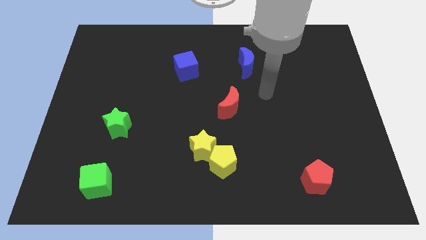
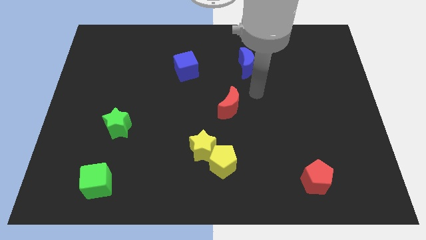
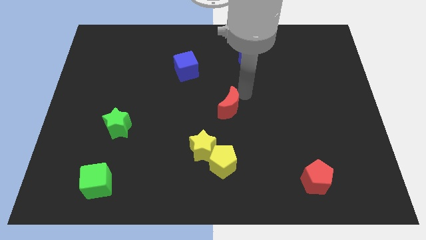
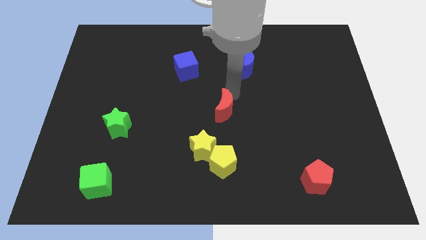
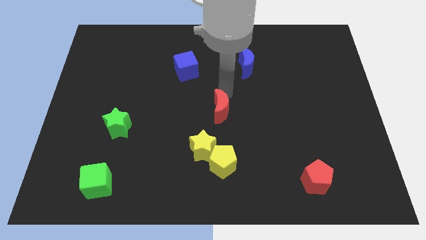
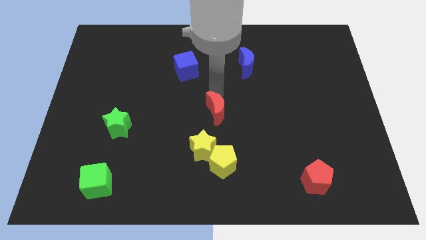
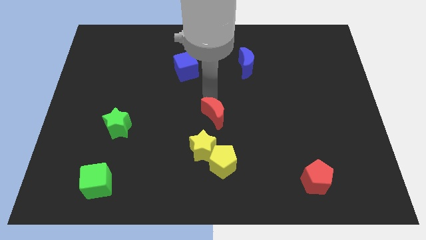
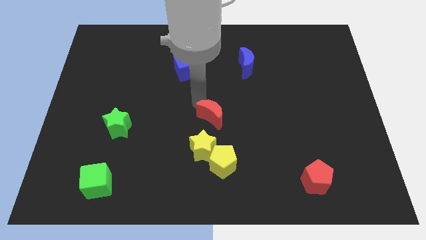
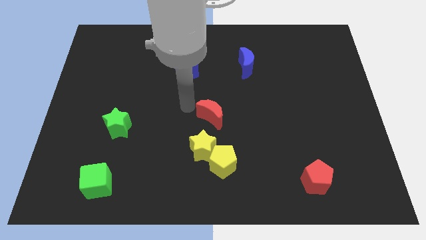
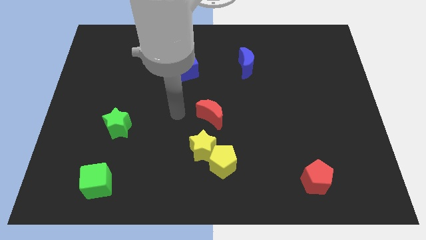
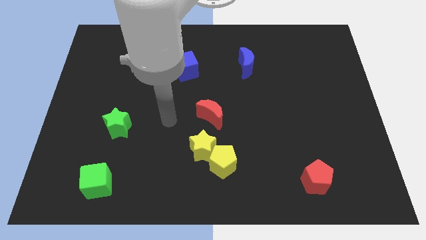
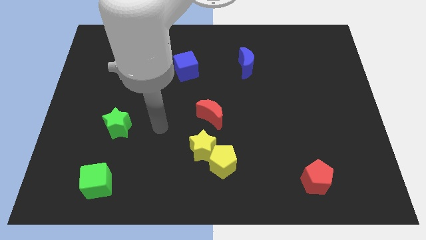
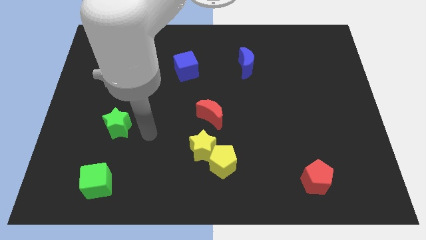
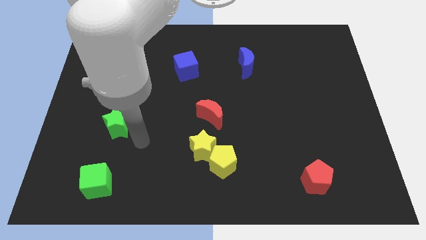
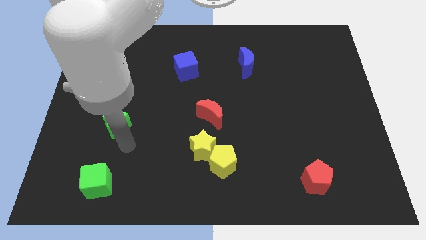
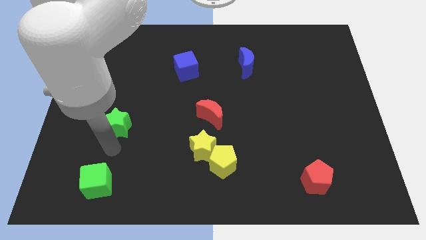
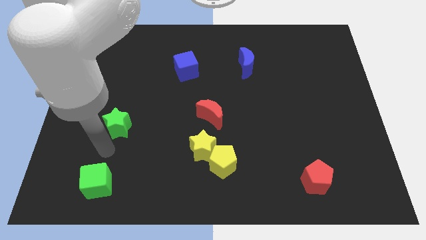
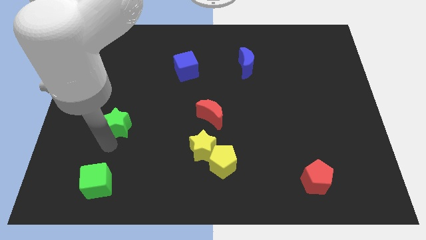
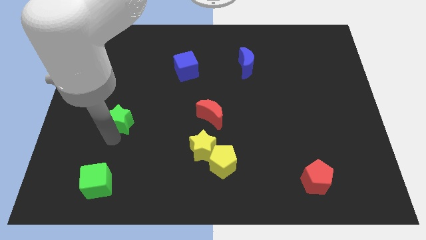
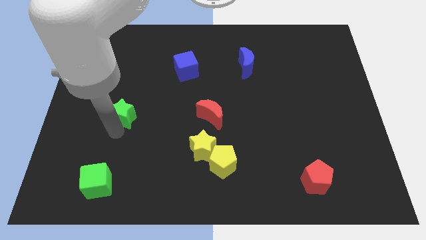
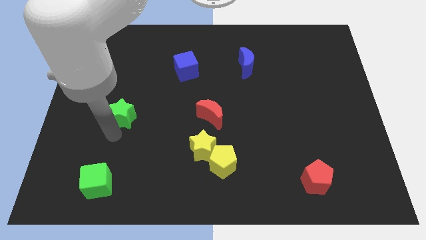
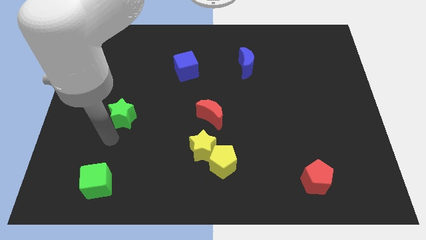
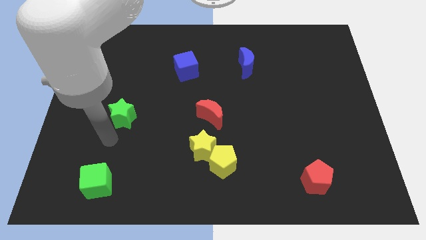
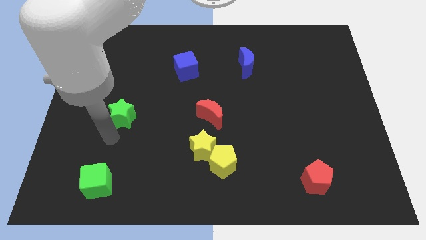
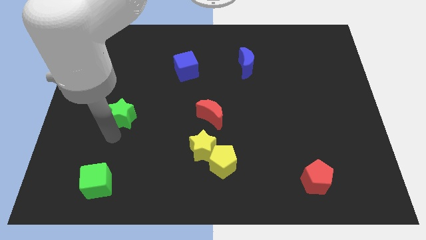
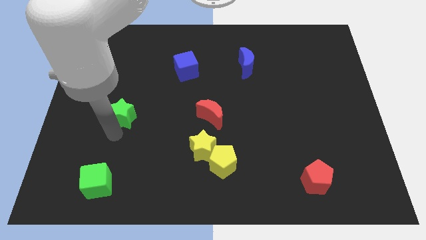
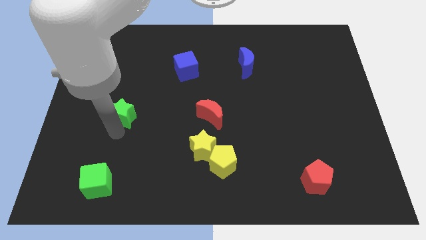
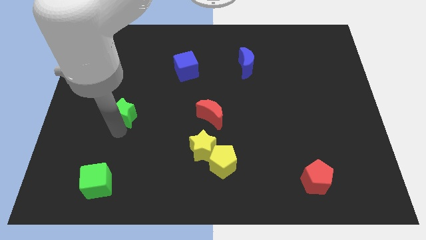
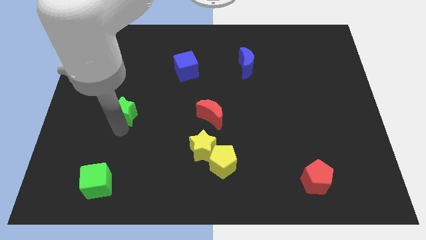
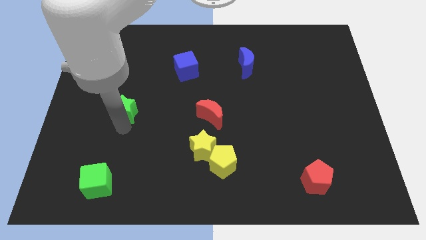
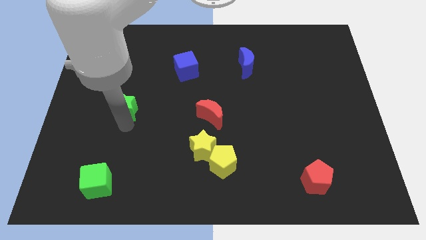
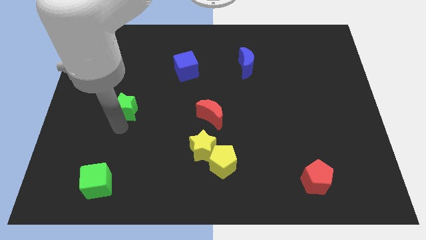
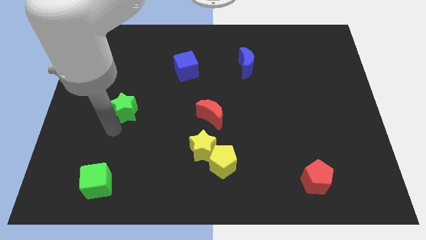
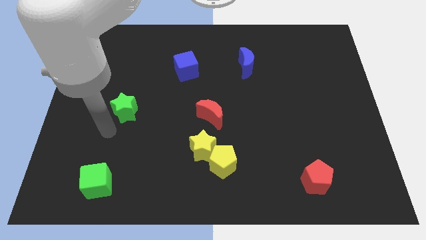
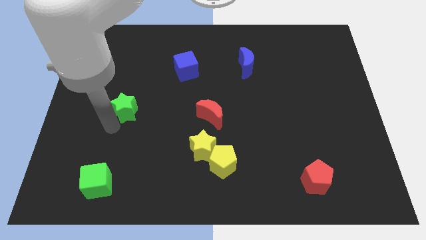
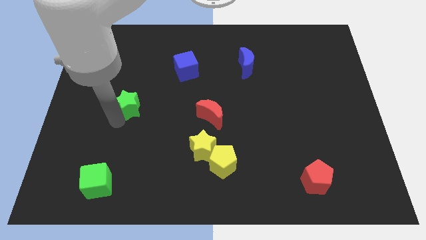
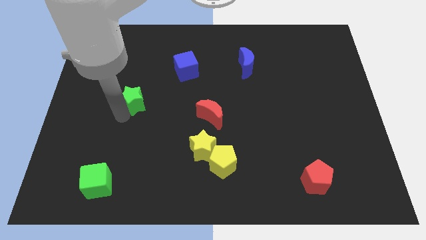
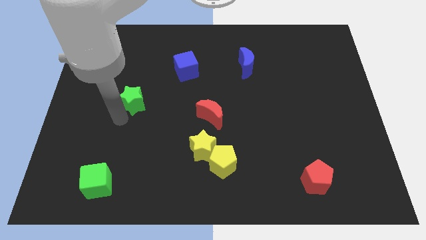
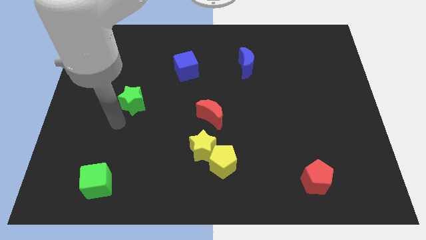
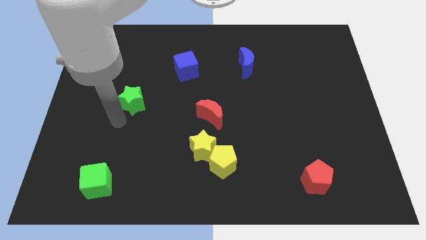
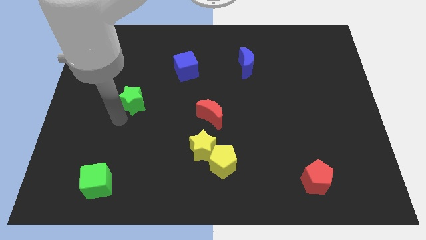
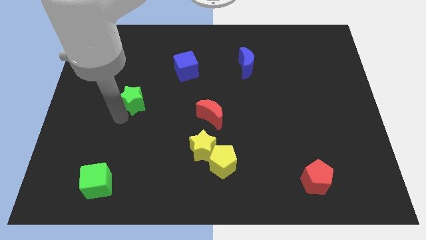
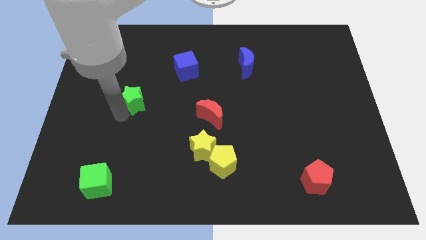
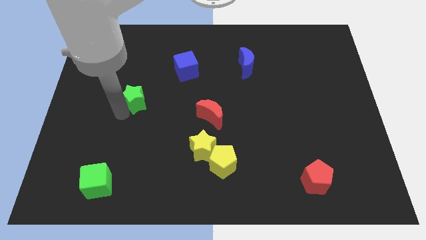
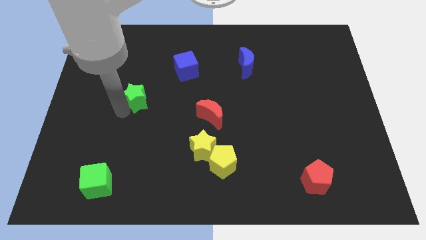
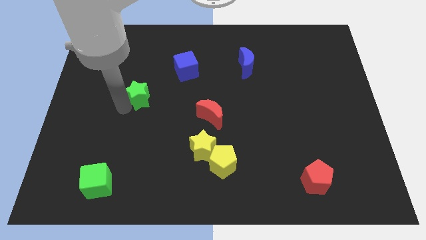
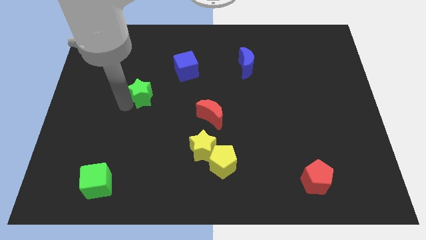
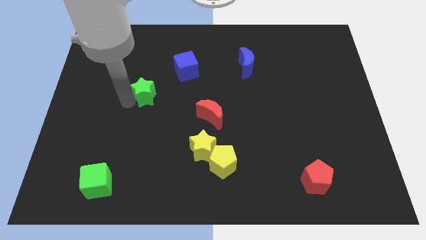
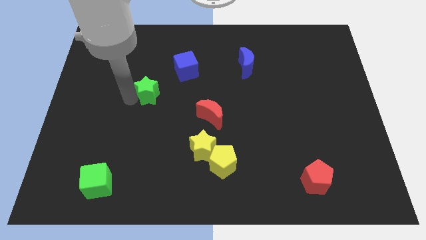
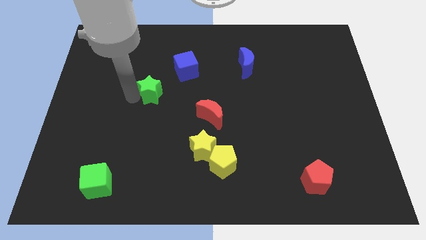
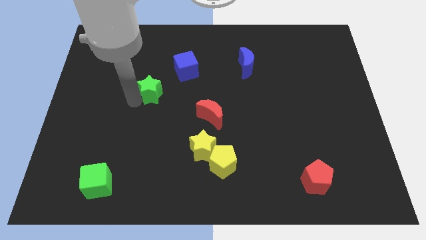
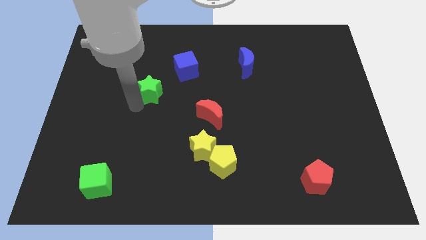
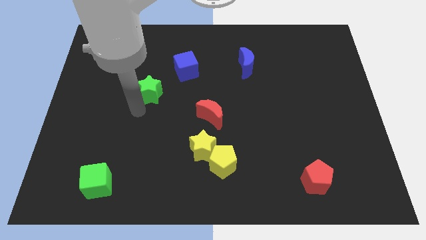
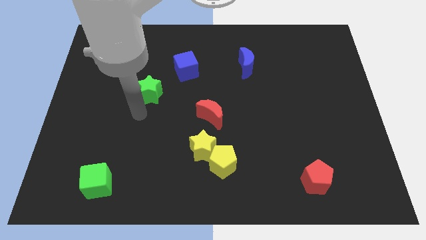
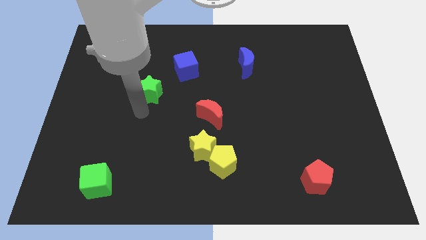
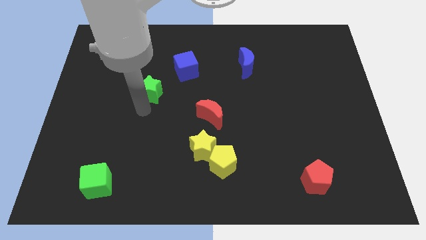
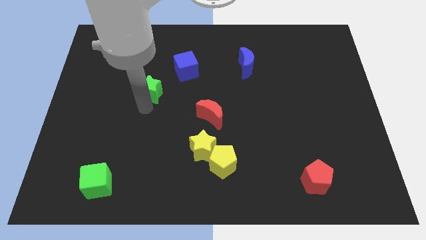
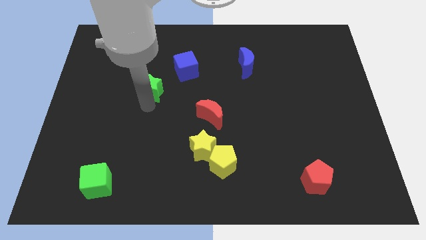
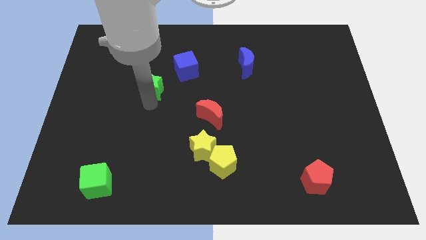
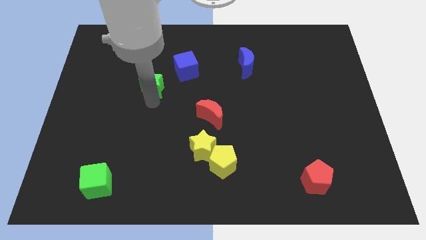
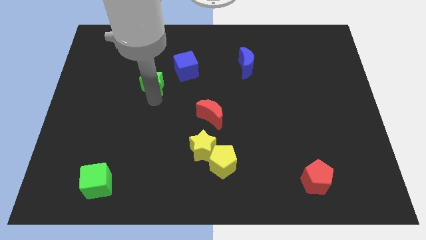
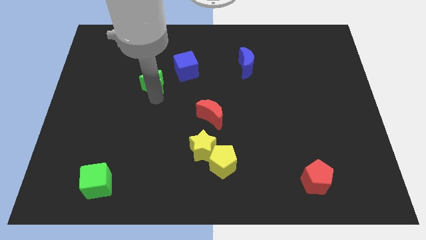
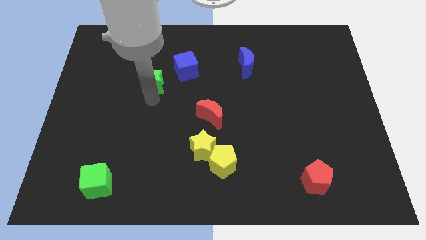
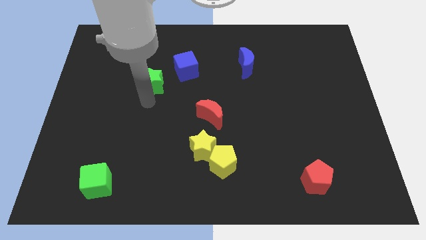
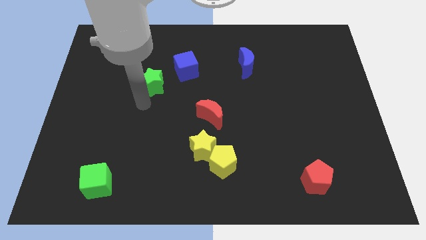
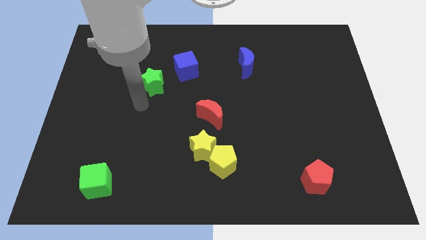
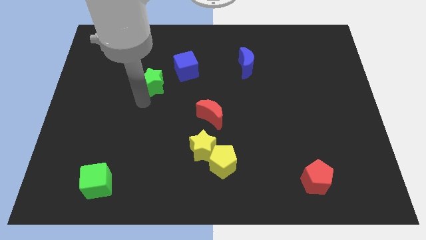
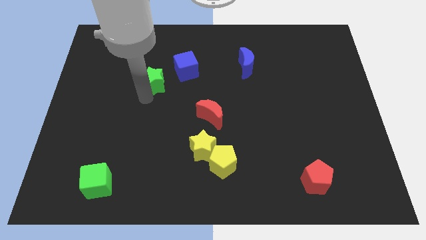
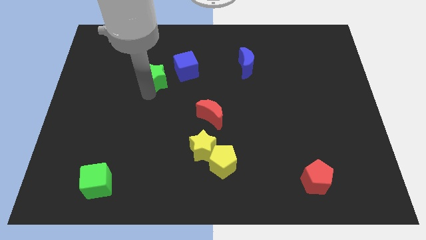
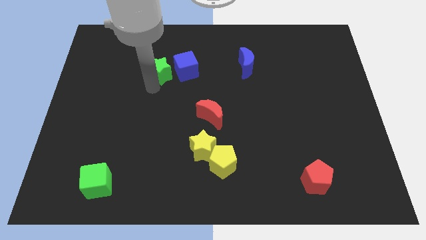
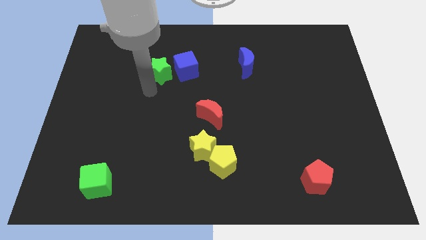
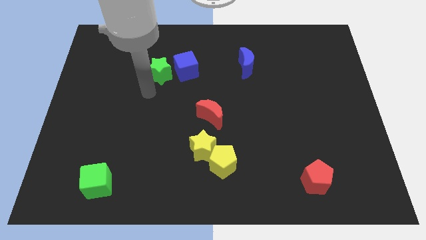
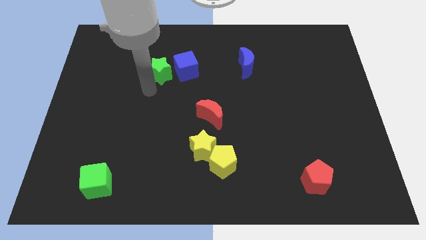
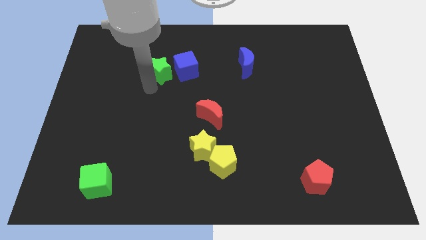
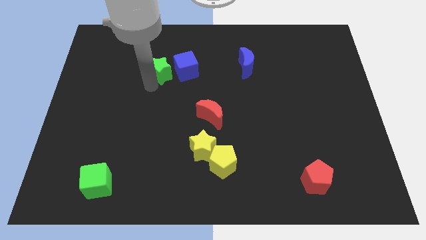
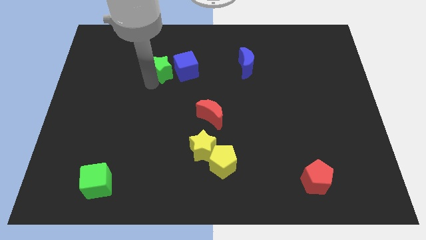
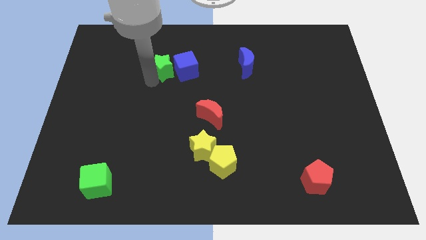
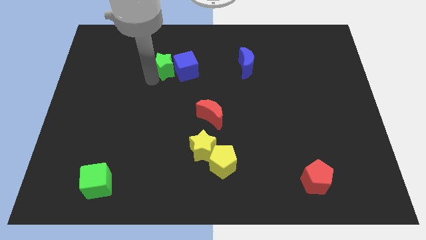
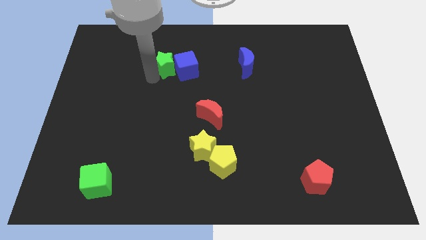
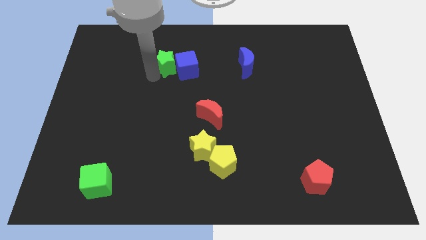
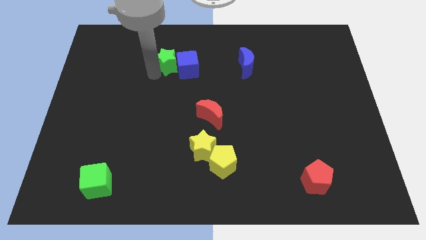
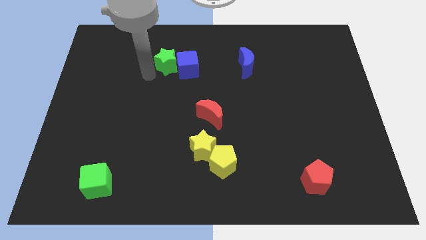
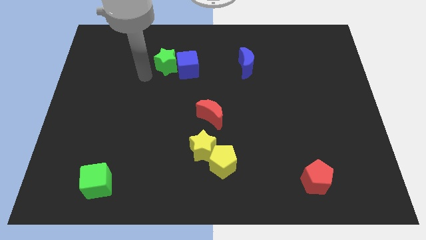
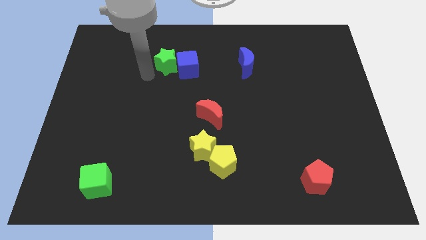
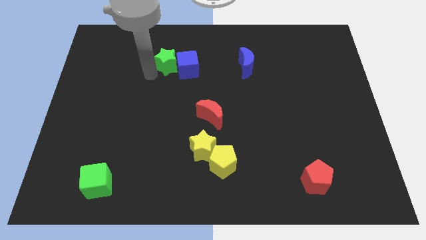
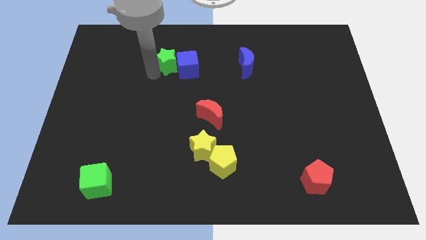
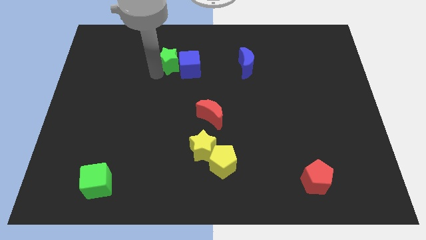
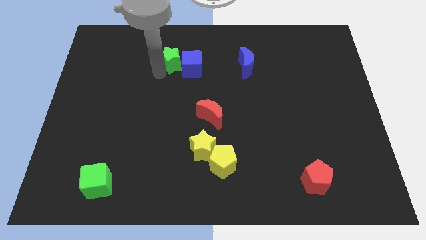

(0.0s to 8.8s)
move the green star upwards and right
